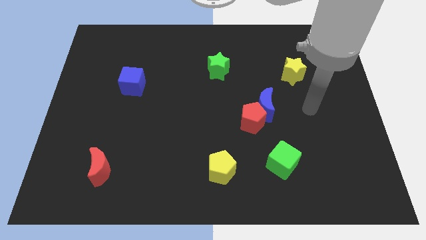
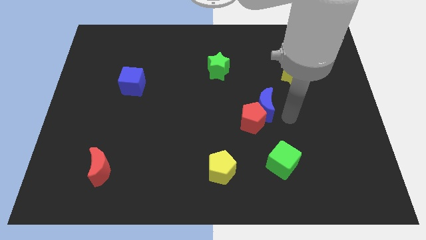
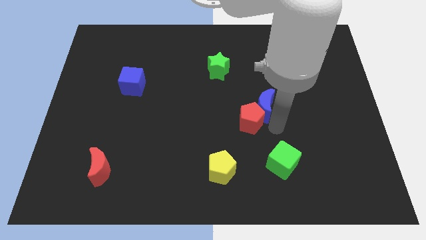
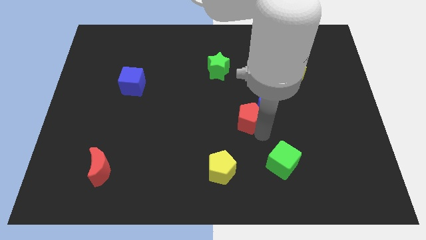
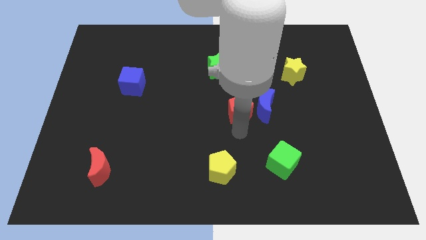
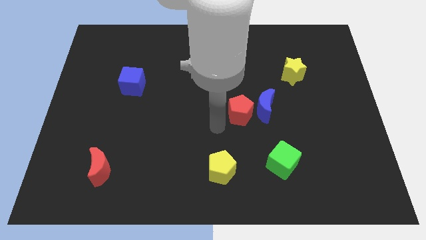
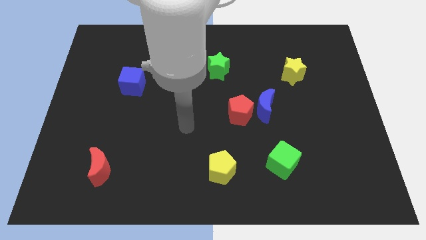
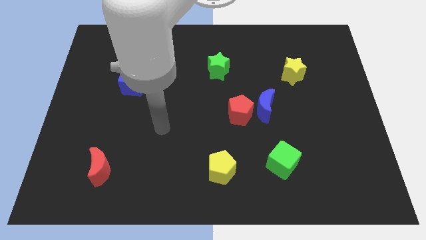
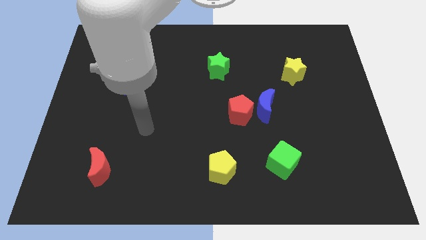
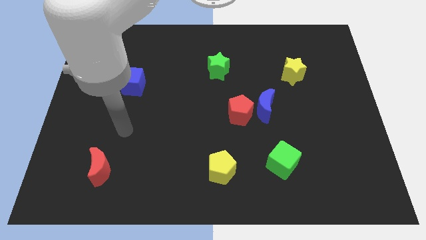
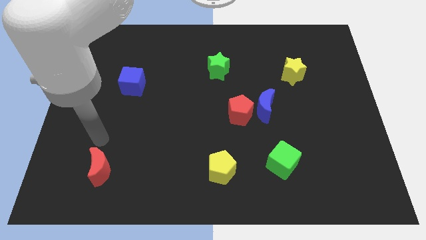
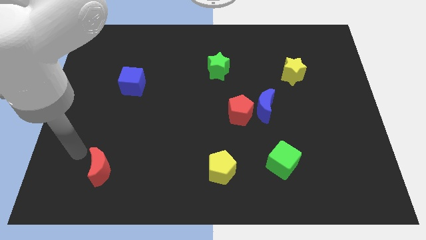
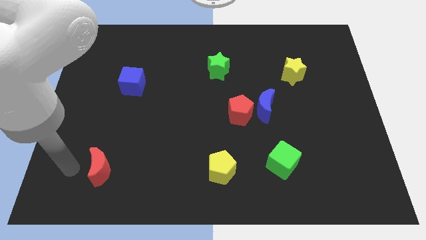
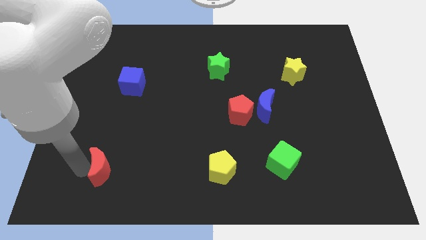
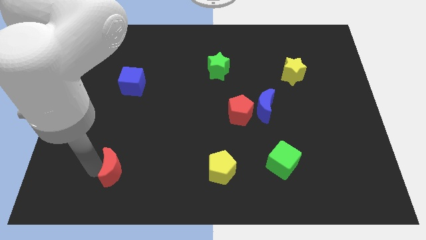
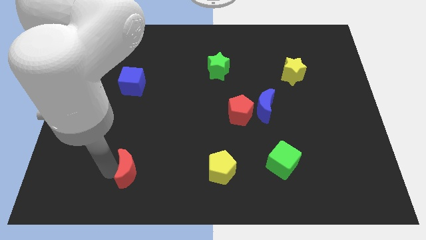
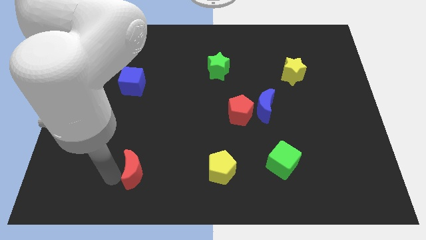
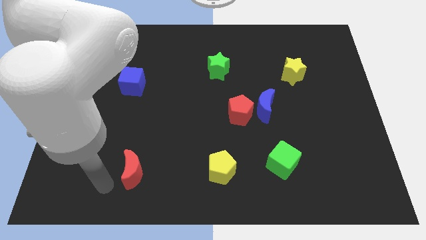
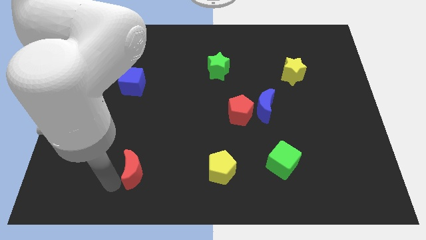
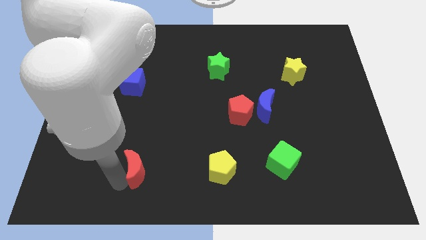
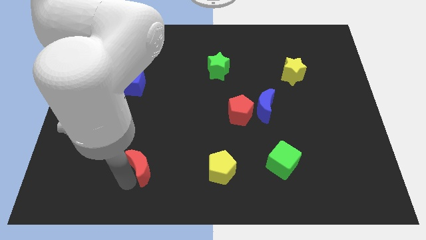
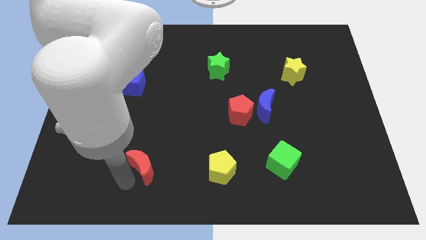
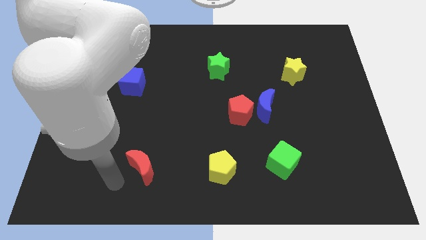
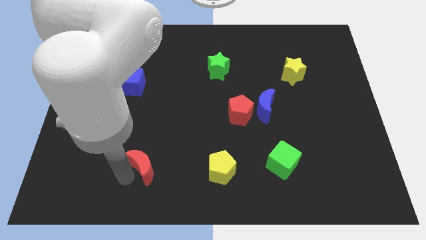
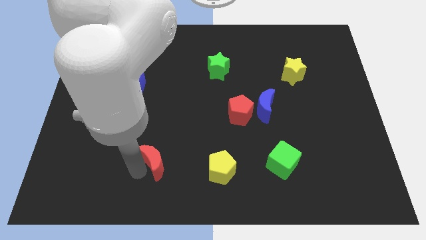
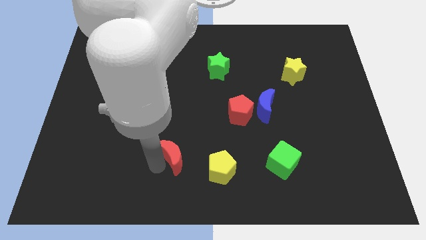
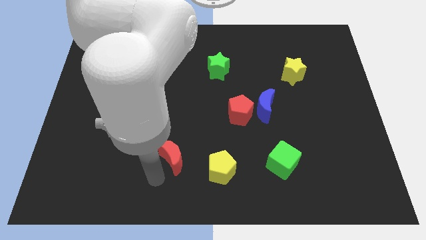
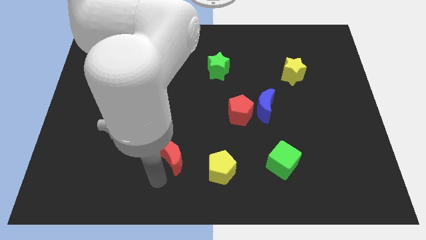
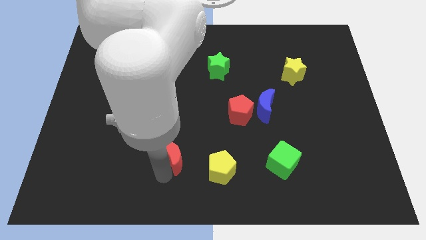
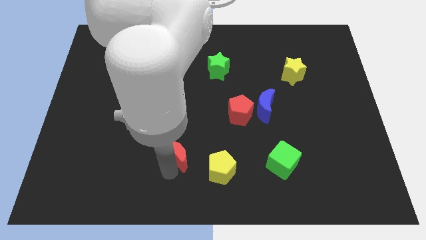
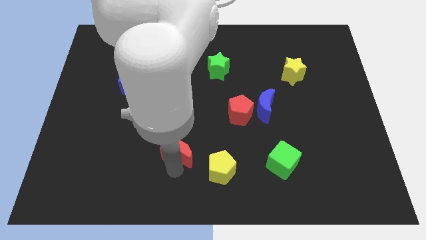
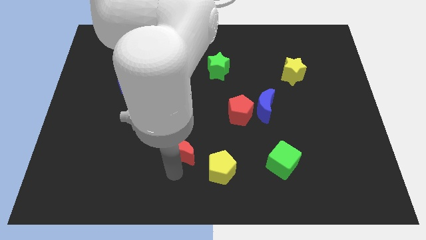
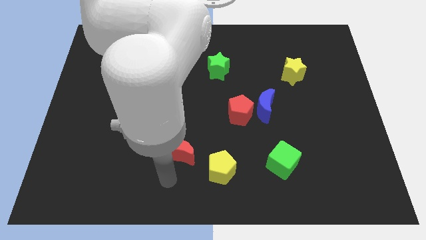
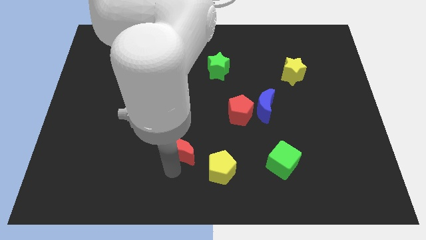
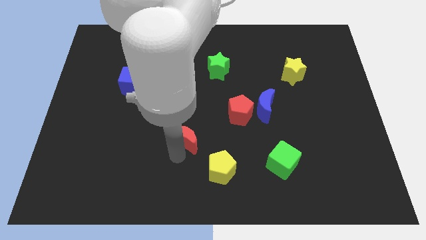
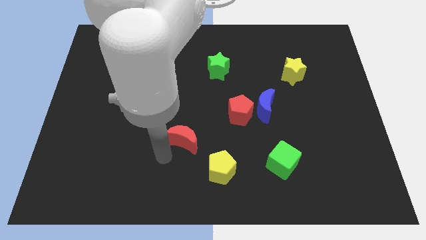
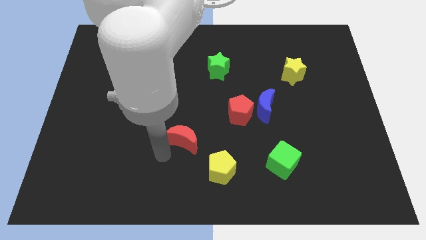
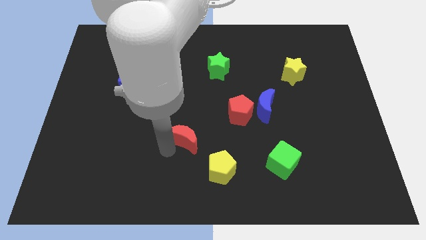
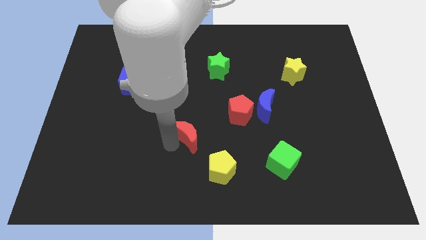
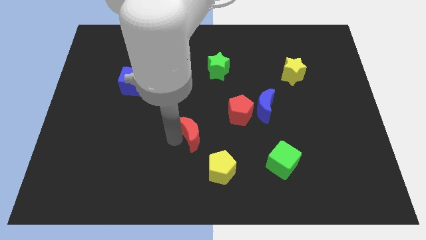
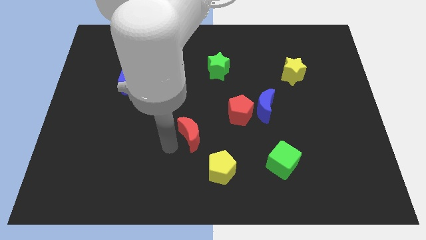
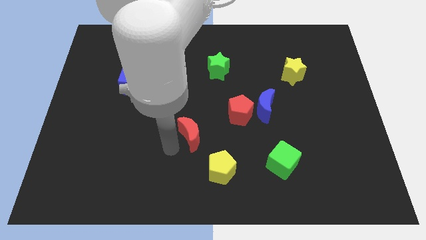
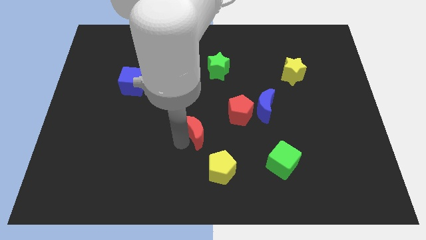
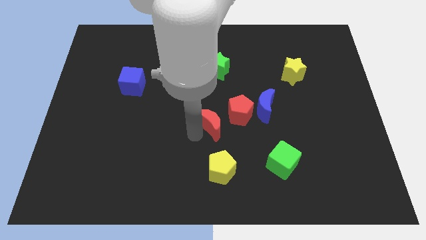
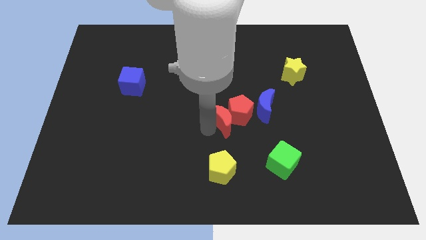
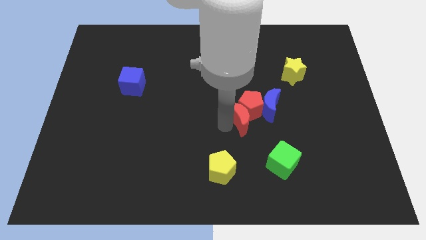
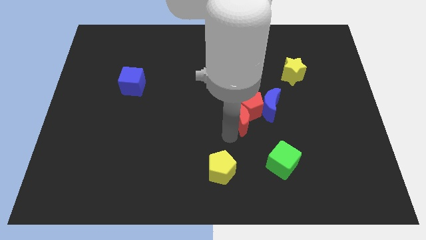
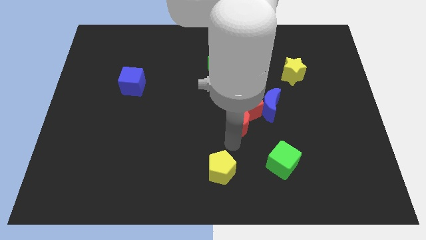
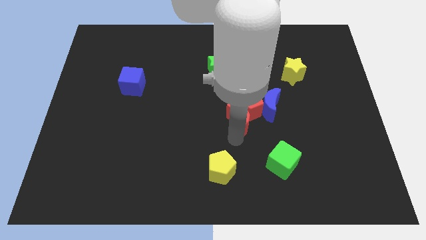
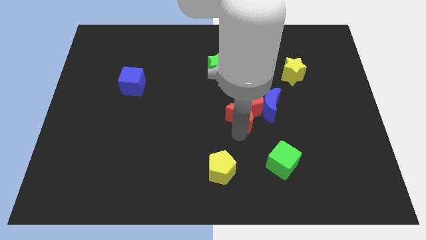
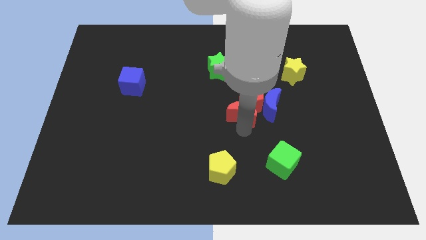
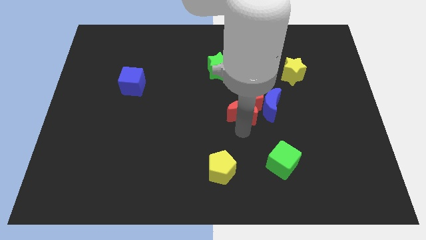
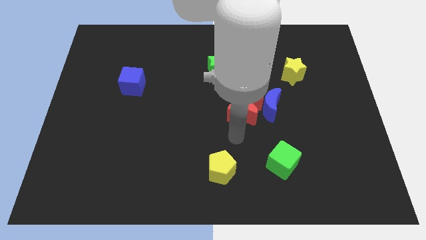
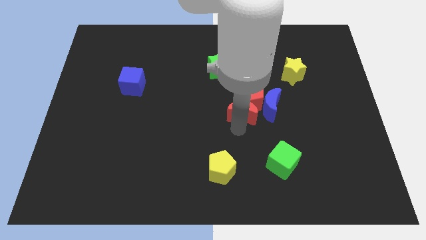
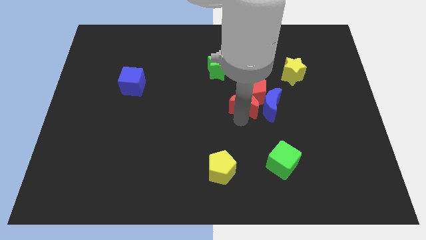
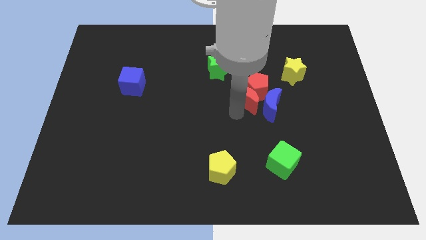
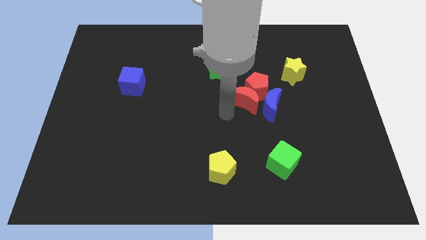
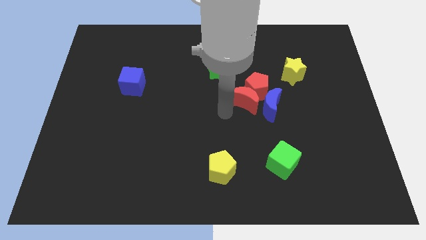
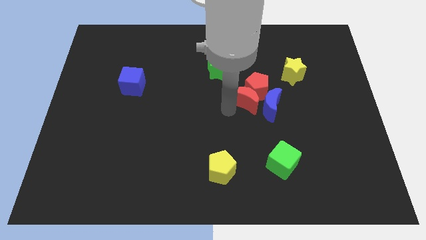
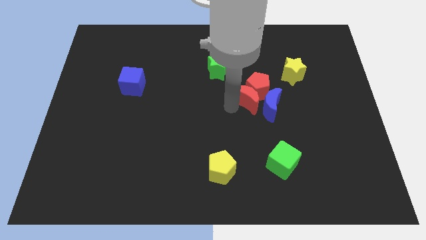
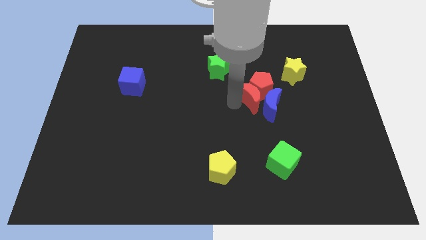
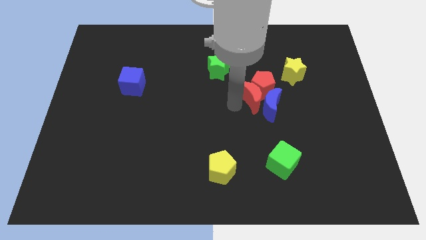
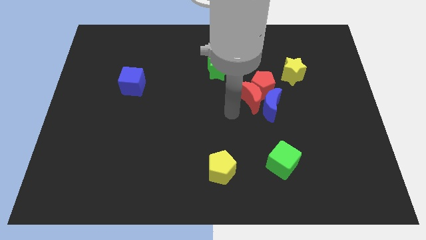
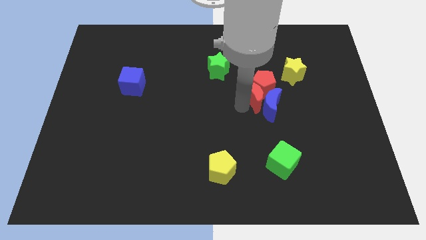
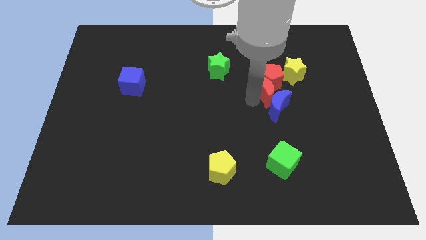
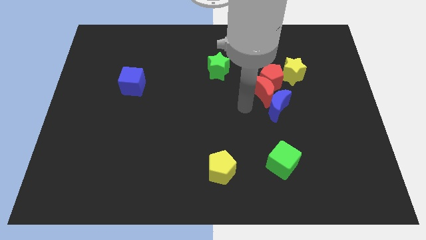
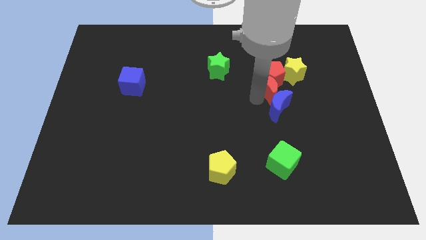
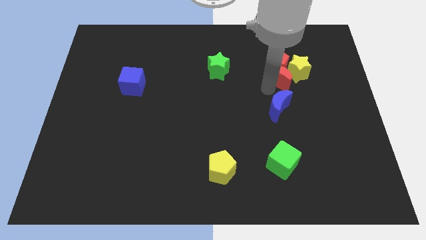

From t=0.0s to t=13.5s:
move the red moon next to the yellow star
